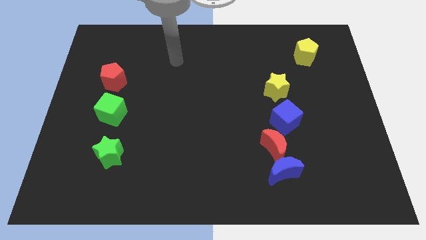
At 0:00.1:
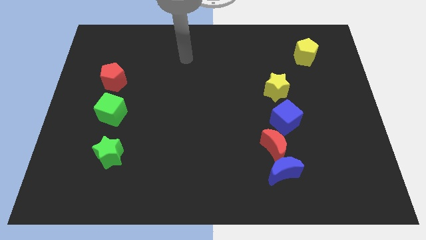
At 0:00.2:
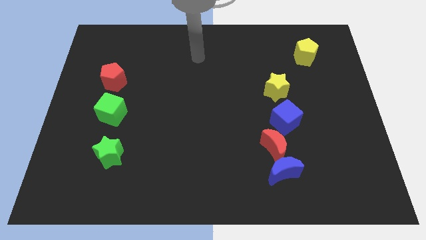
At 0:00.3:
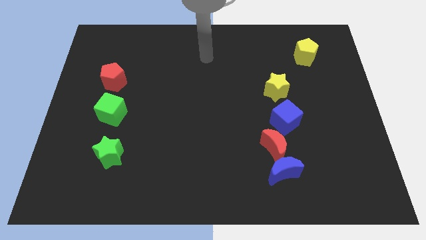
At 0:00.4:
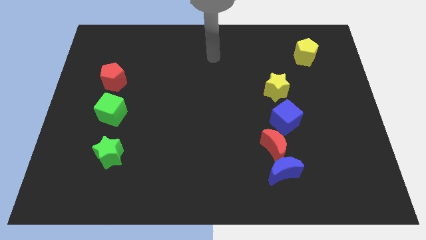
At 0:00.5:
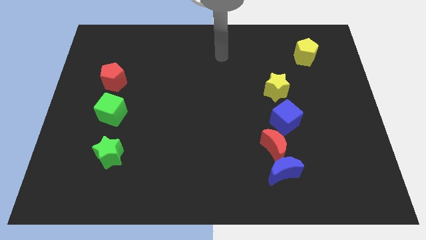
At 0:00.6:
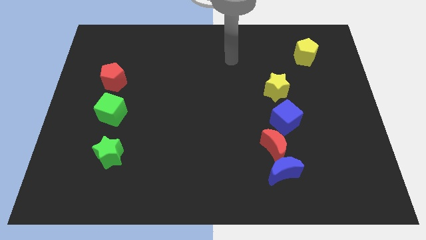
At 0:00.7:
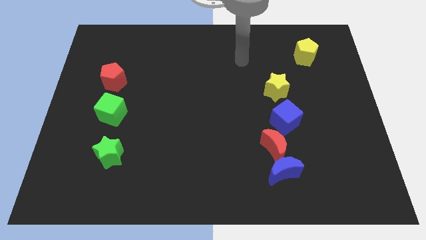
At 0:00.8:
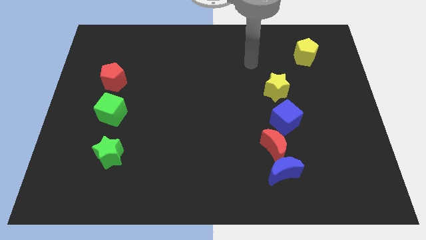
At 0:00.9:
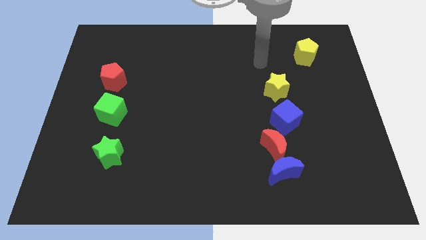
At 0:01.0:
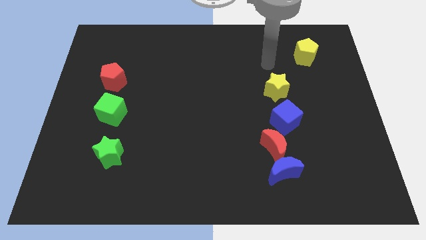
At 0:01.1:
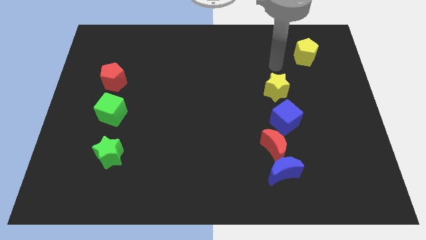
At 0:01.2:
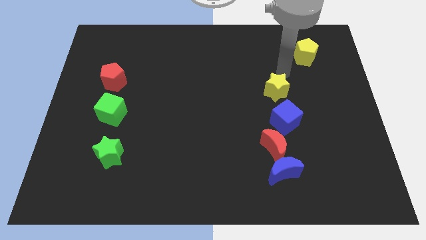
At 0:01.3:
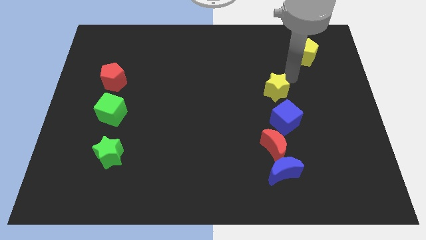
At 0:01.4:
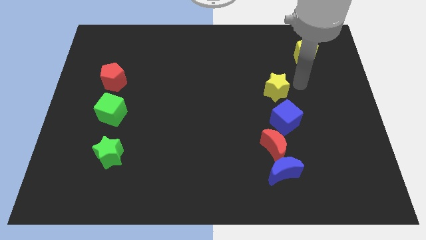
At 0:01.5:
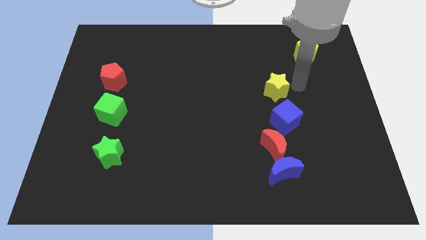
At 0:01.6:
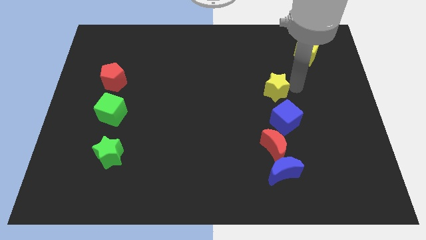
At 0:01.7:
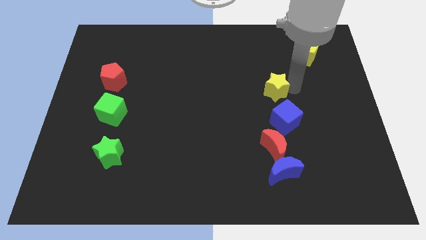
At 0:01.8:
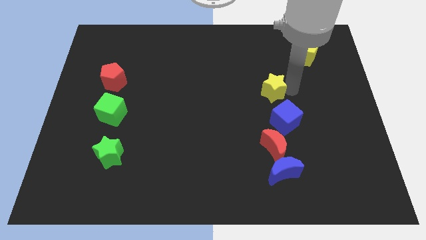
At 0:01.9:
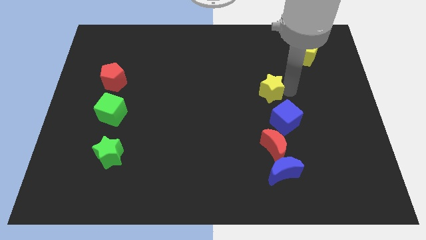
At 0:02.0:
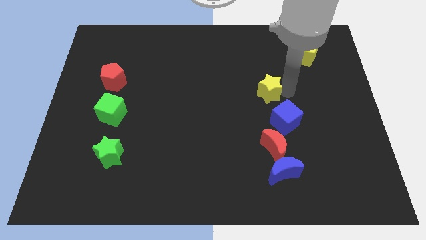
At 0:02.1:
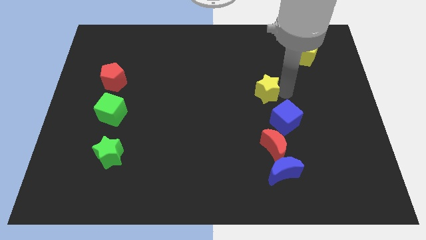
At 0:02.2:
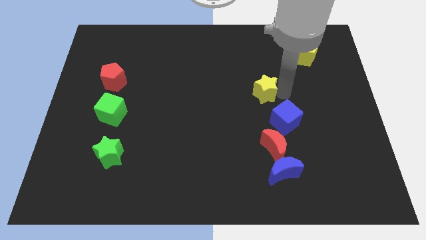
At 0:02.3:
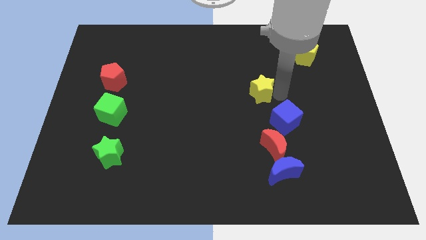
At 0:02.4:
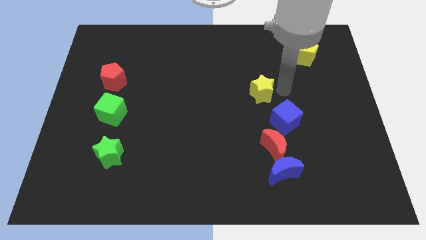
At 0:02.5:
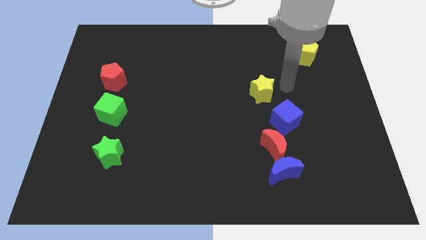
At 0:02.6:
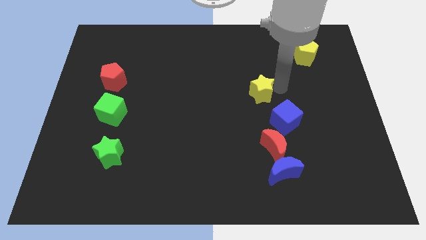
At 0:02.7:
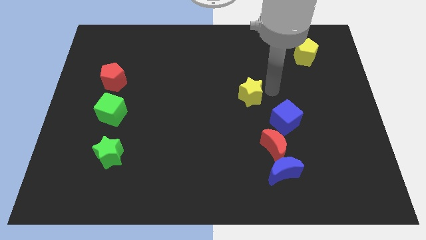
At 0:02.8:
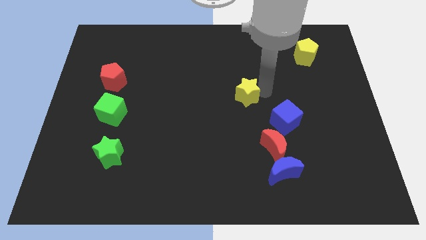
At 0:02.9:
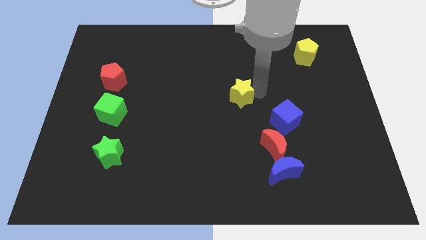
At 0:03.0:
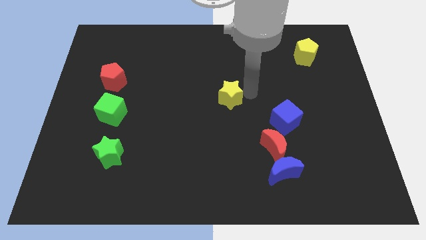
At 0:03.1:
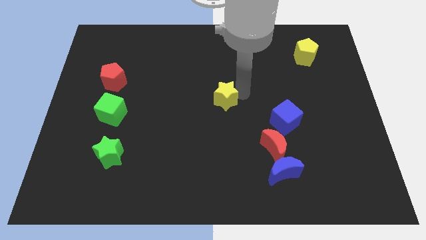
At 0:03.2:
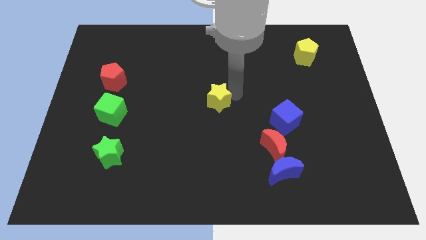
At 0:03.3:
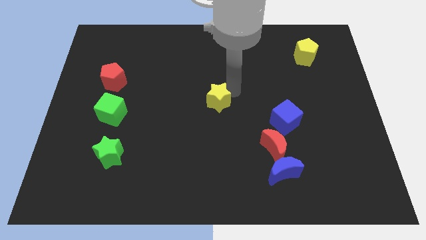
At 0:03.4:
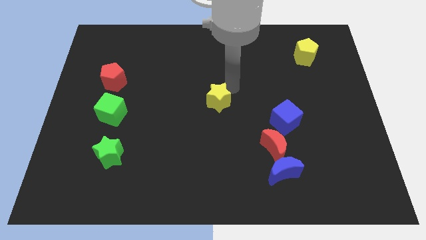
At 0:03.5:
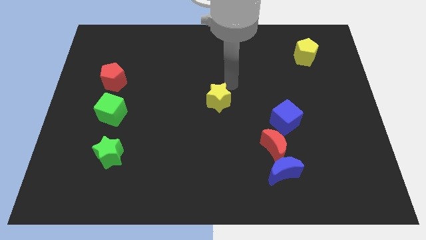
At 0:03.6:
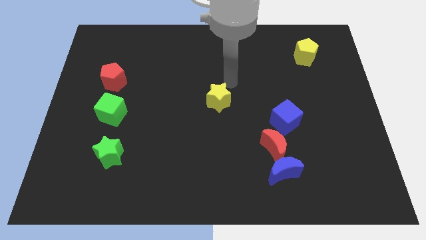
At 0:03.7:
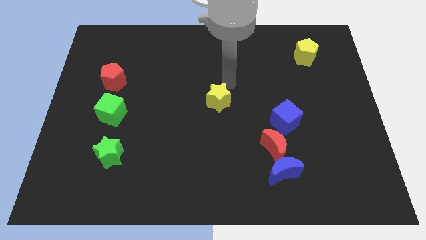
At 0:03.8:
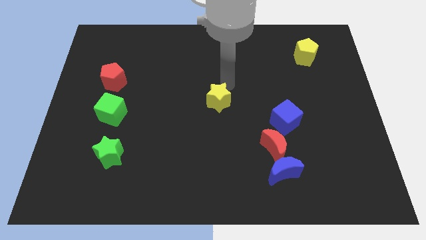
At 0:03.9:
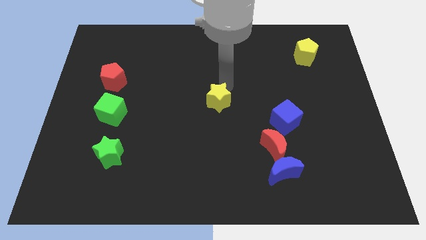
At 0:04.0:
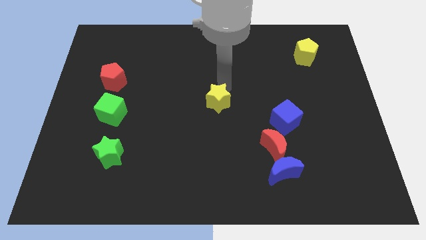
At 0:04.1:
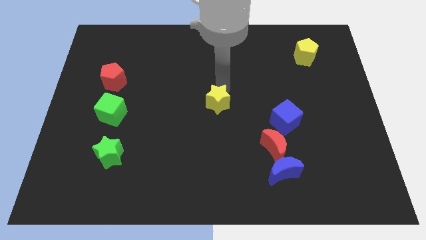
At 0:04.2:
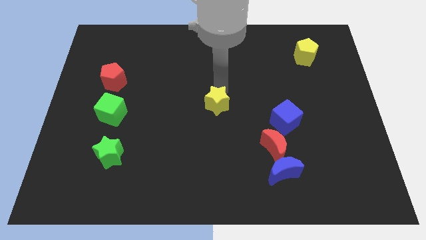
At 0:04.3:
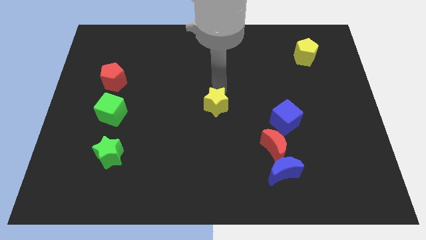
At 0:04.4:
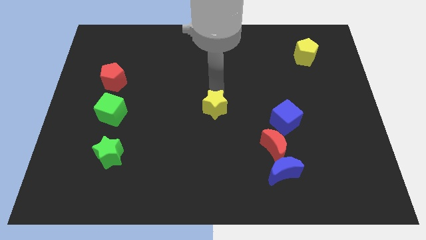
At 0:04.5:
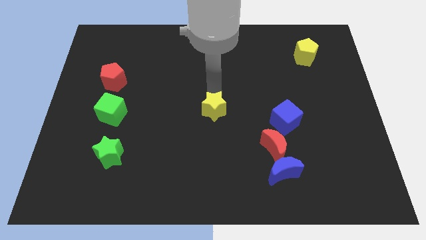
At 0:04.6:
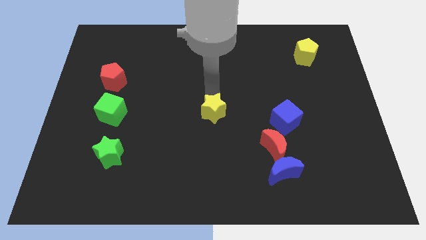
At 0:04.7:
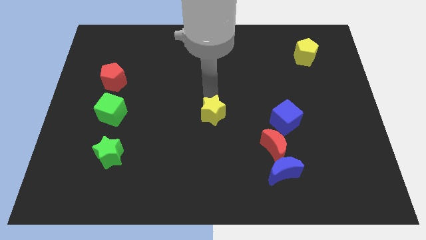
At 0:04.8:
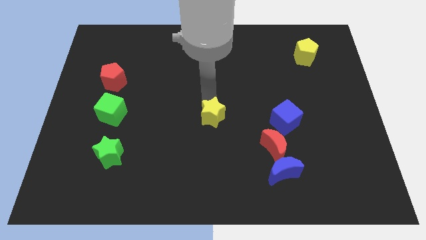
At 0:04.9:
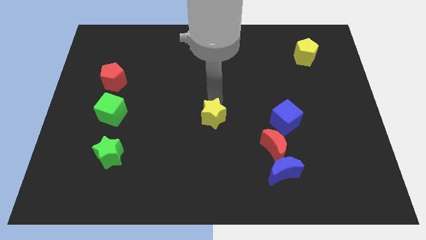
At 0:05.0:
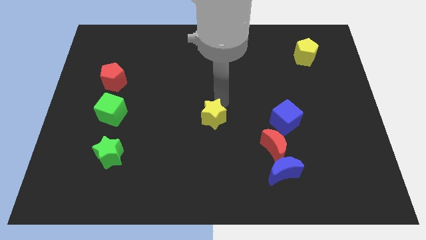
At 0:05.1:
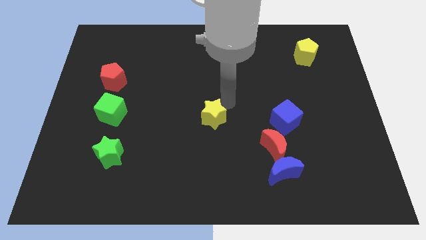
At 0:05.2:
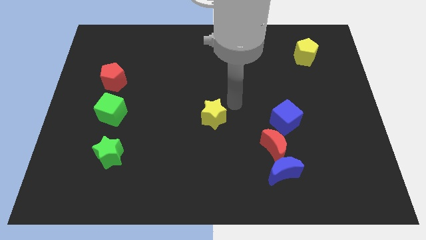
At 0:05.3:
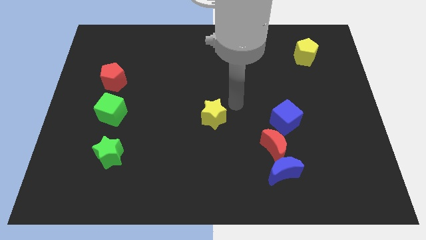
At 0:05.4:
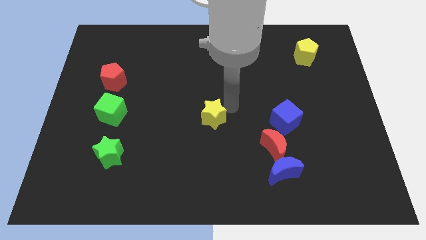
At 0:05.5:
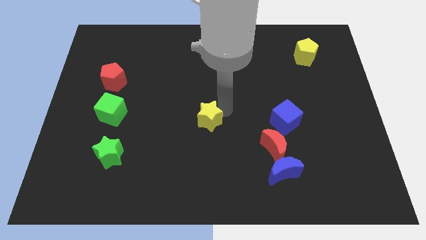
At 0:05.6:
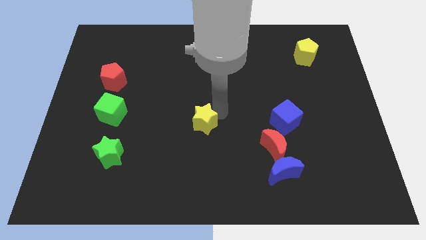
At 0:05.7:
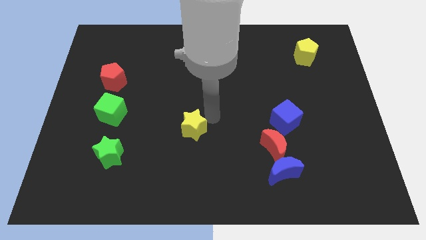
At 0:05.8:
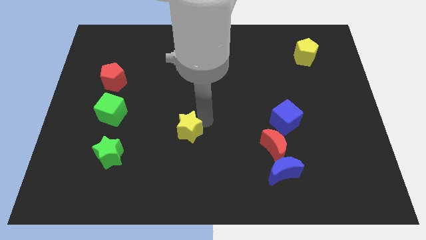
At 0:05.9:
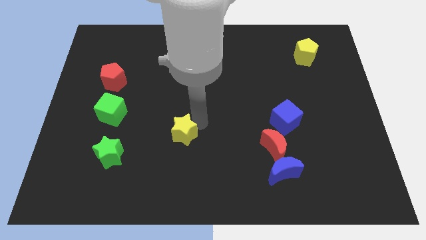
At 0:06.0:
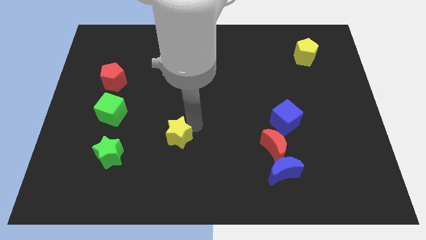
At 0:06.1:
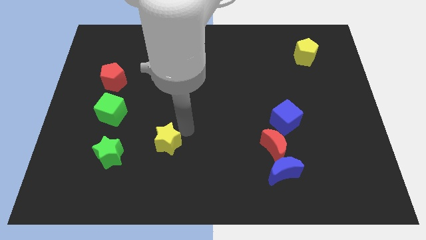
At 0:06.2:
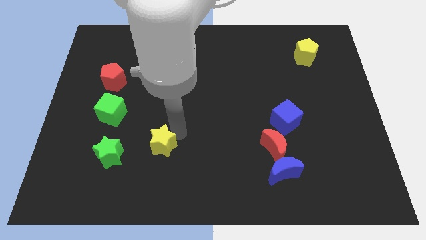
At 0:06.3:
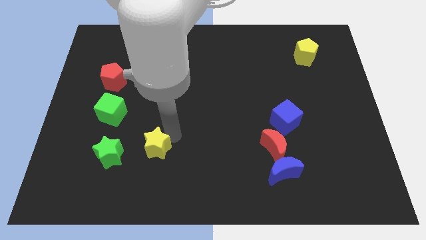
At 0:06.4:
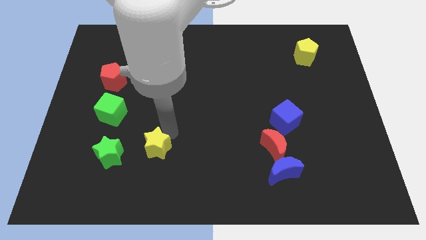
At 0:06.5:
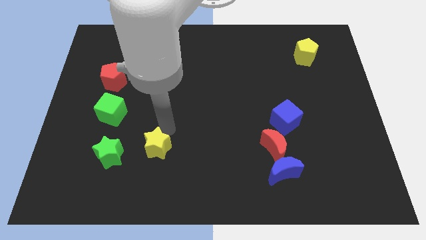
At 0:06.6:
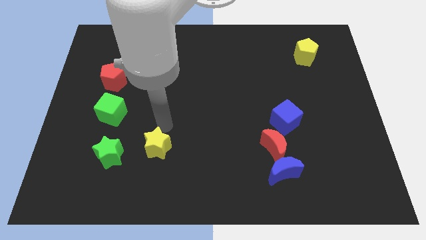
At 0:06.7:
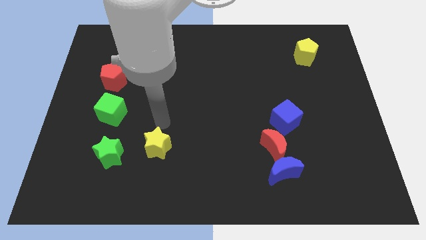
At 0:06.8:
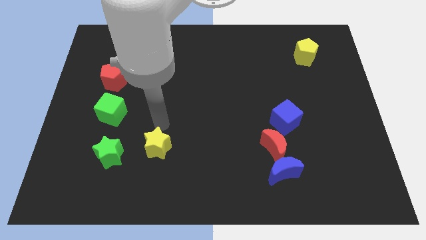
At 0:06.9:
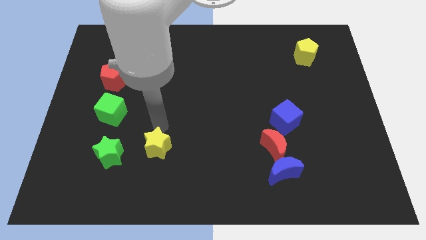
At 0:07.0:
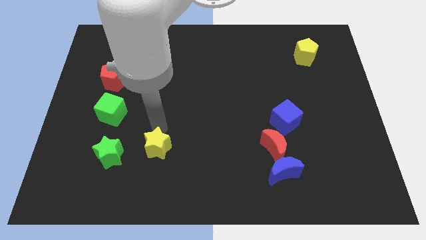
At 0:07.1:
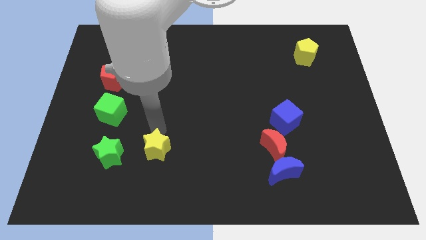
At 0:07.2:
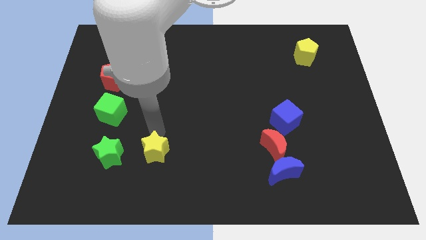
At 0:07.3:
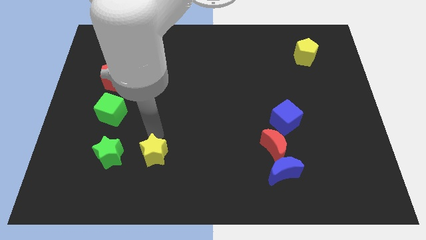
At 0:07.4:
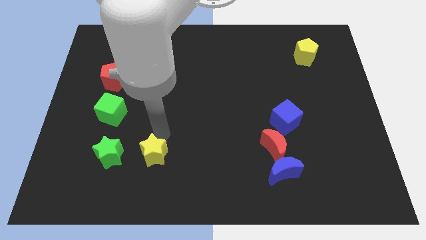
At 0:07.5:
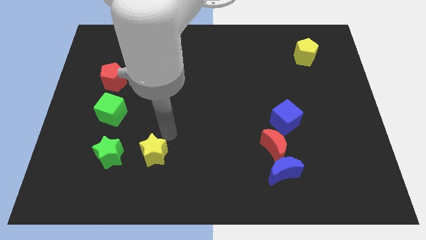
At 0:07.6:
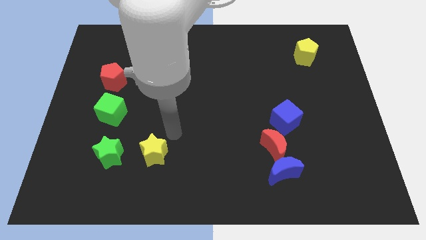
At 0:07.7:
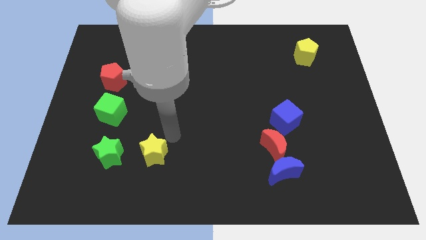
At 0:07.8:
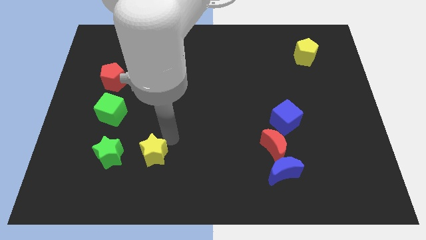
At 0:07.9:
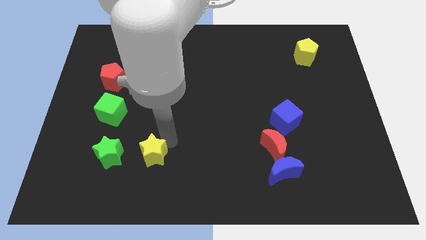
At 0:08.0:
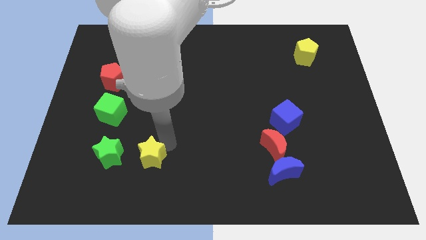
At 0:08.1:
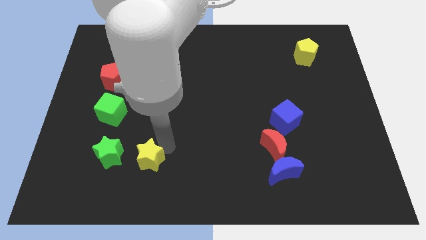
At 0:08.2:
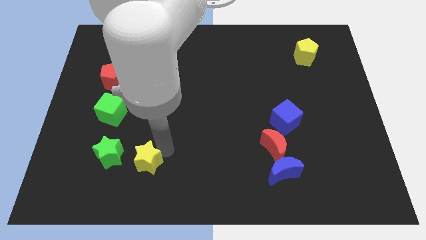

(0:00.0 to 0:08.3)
slide the yellow star diagonally down and to the right of the green star
